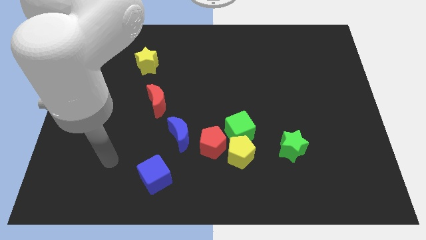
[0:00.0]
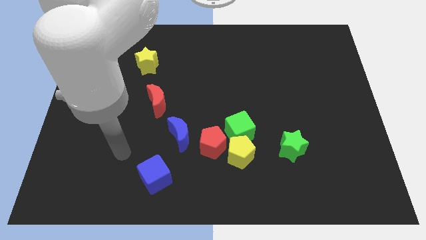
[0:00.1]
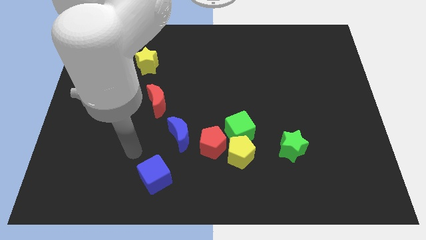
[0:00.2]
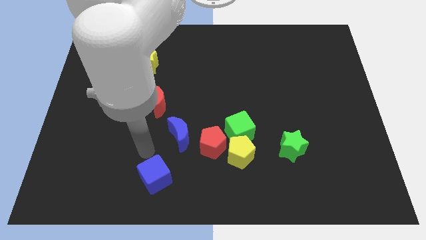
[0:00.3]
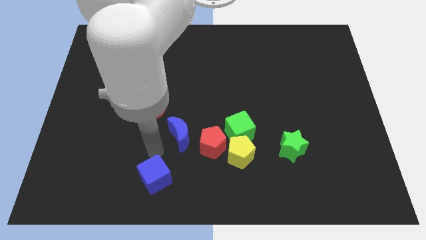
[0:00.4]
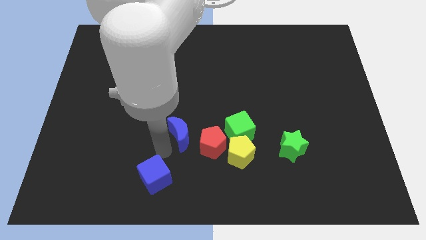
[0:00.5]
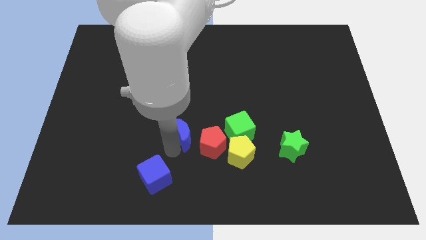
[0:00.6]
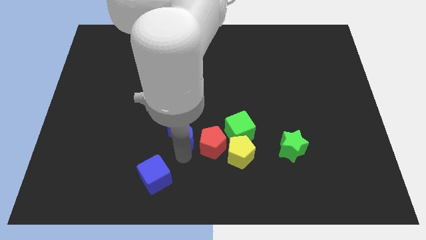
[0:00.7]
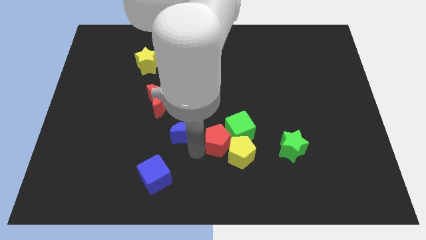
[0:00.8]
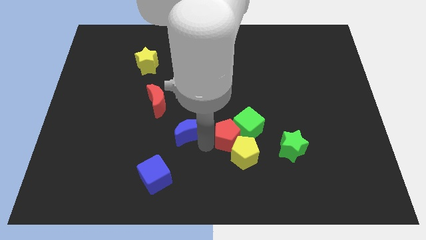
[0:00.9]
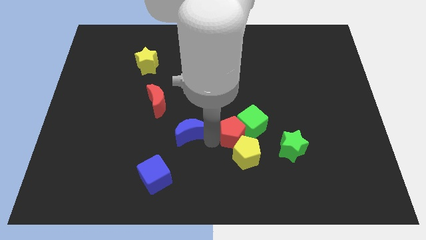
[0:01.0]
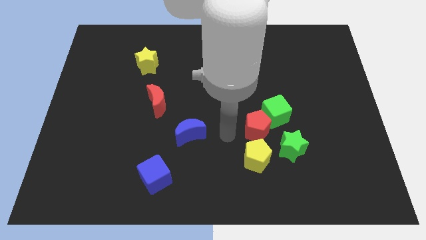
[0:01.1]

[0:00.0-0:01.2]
pull the yellow pentagon apart from the green cube and red pentagon

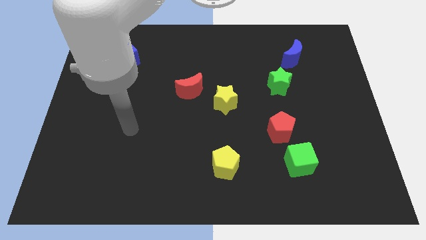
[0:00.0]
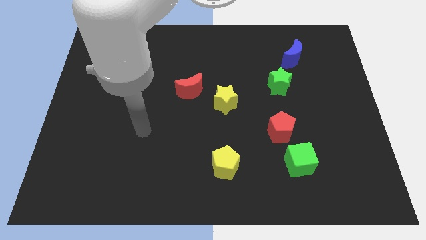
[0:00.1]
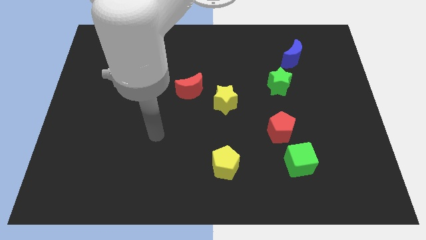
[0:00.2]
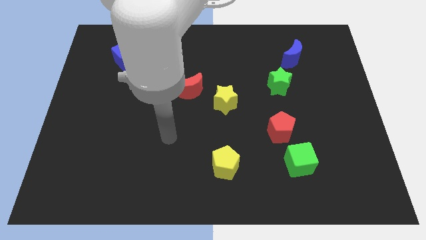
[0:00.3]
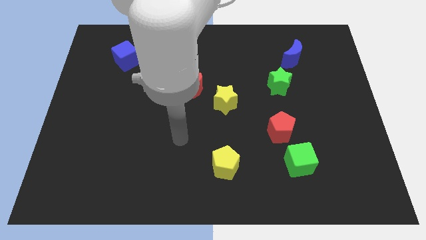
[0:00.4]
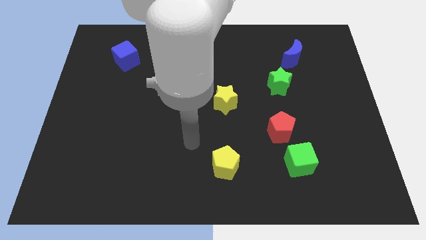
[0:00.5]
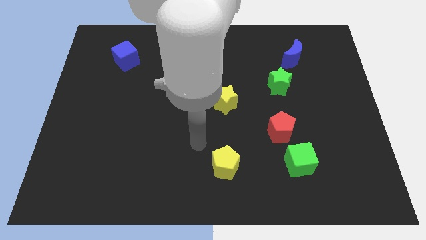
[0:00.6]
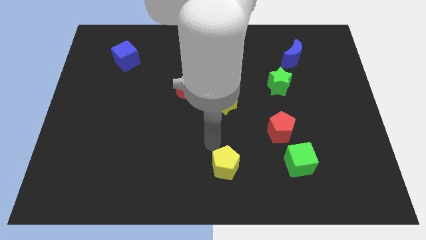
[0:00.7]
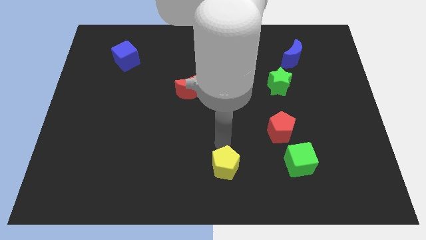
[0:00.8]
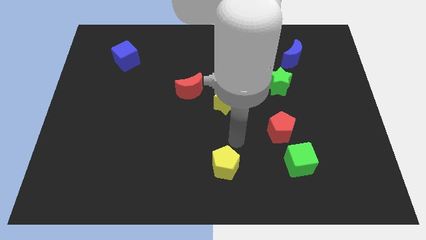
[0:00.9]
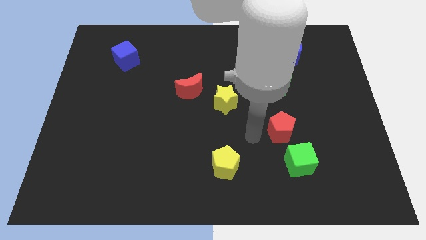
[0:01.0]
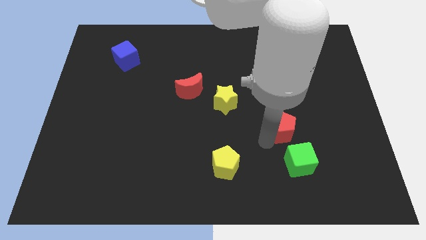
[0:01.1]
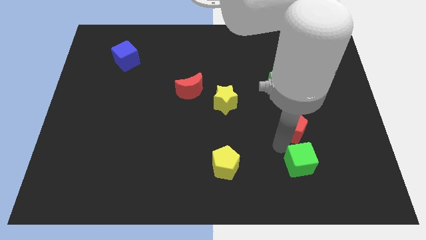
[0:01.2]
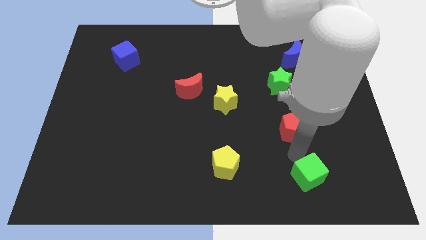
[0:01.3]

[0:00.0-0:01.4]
pull the red pentagon apart from the green cube

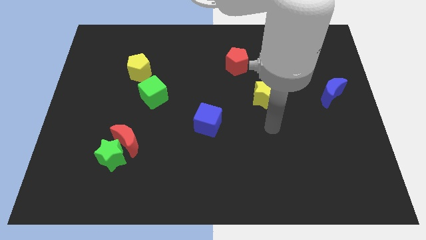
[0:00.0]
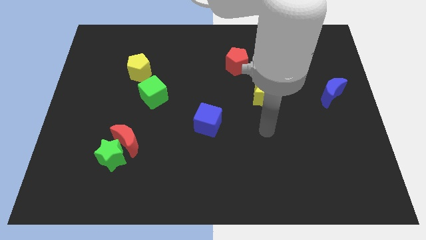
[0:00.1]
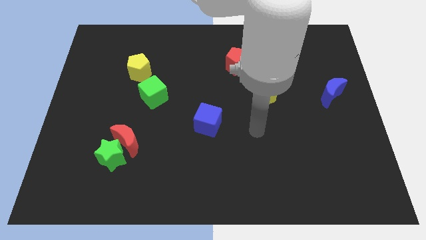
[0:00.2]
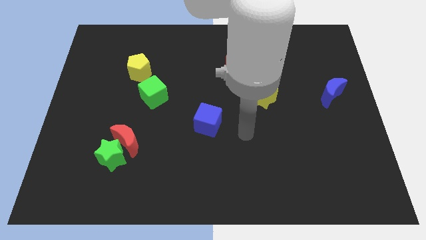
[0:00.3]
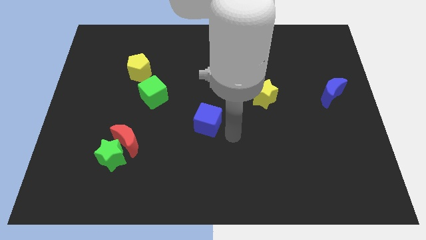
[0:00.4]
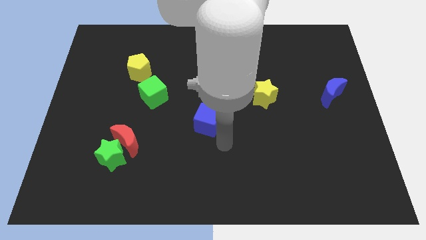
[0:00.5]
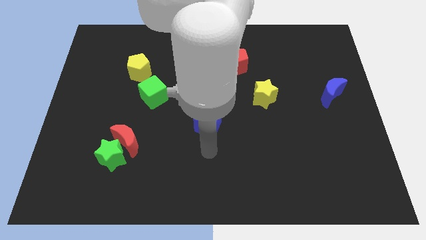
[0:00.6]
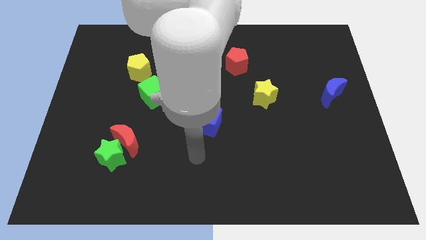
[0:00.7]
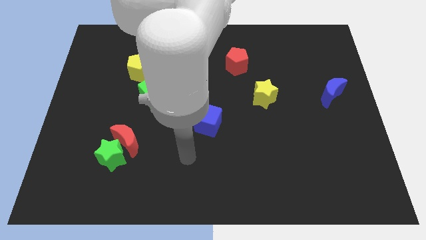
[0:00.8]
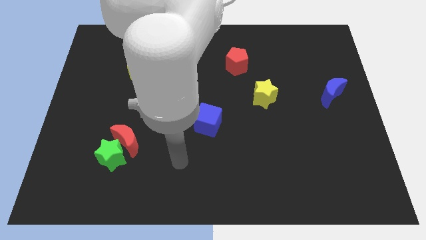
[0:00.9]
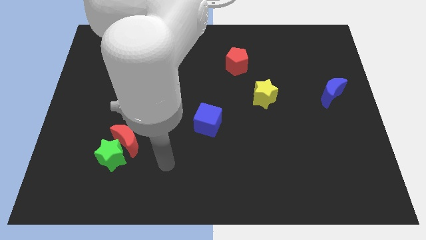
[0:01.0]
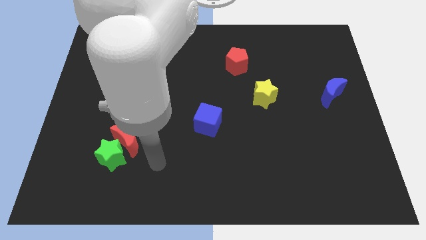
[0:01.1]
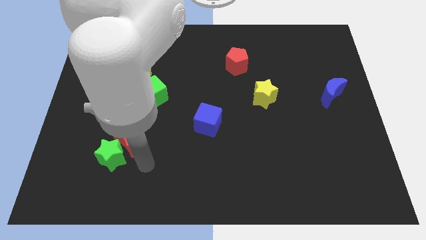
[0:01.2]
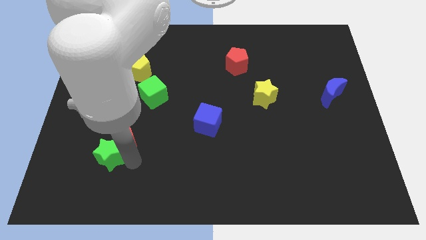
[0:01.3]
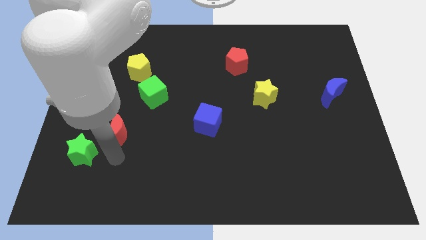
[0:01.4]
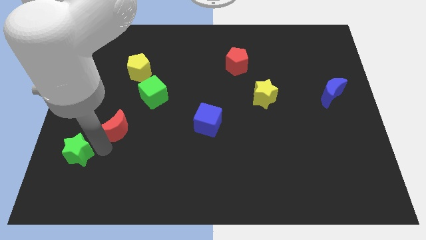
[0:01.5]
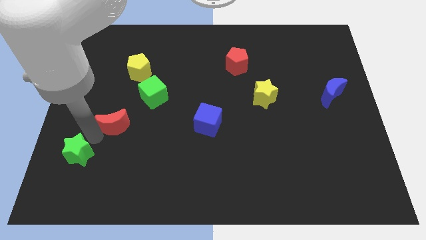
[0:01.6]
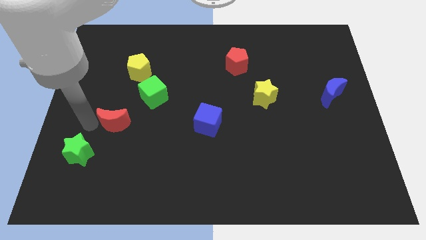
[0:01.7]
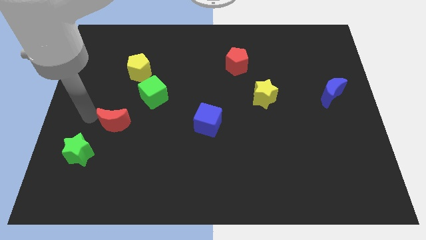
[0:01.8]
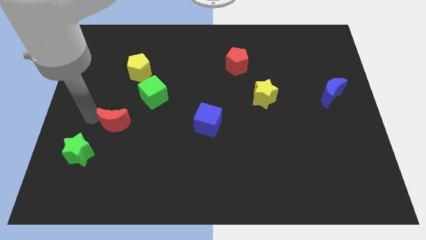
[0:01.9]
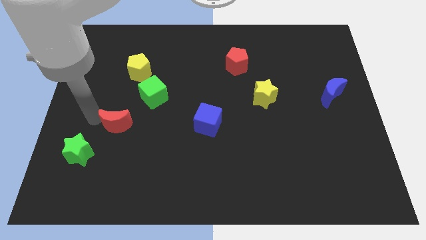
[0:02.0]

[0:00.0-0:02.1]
separate the red moon from the green star

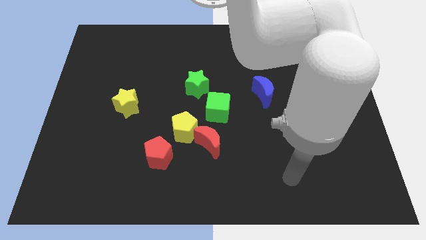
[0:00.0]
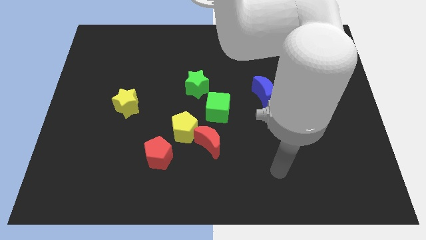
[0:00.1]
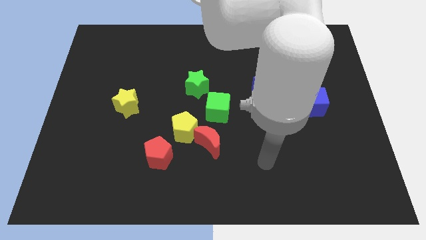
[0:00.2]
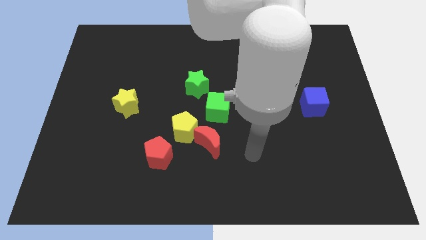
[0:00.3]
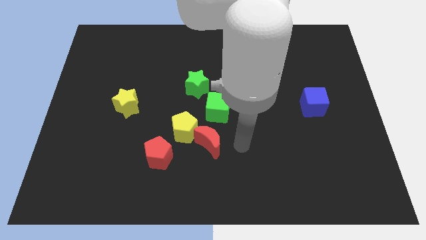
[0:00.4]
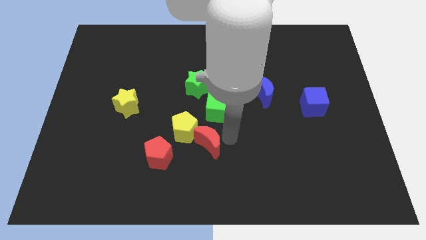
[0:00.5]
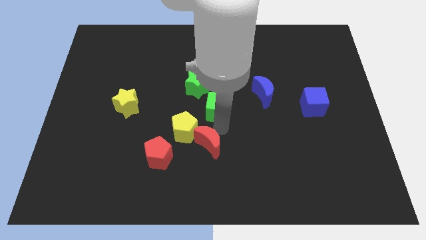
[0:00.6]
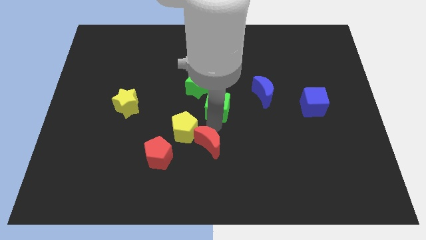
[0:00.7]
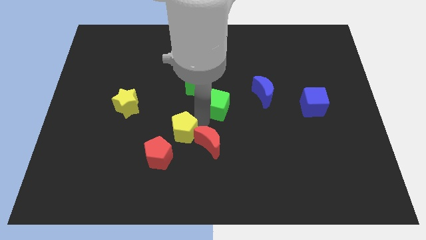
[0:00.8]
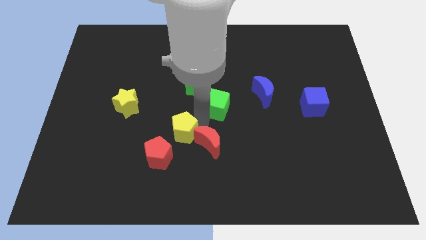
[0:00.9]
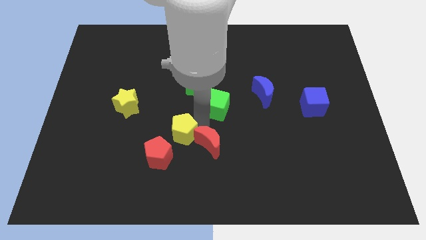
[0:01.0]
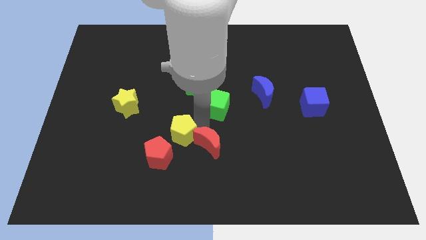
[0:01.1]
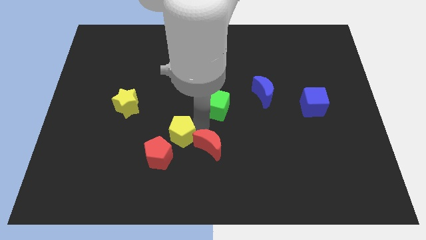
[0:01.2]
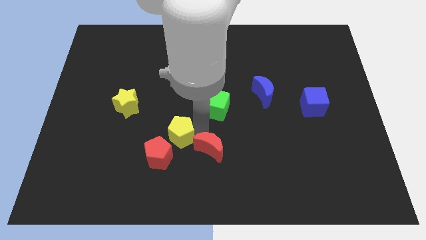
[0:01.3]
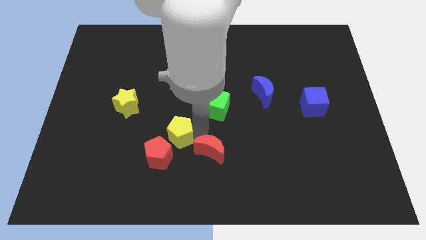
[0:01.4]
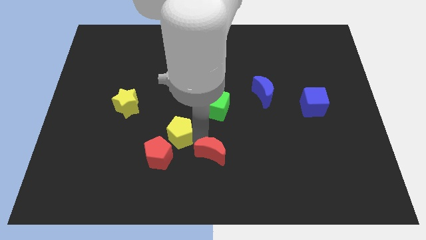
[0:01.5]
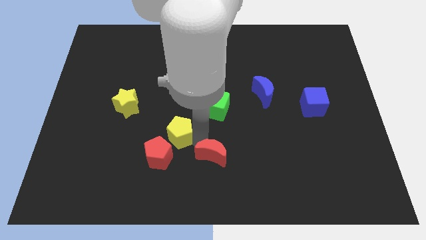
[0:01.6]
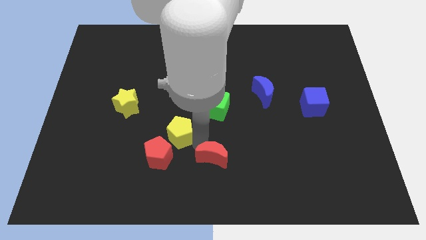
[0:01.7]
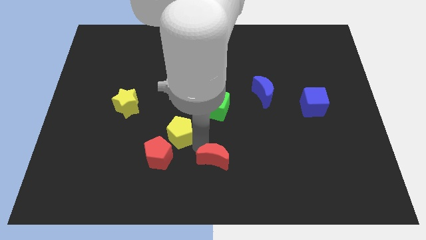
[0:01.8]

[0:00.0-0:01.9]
move the red moon away from the yellow pentagon and green cube

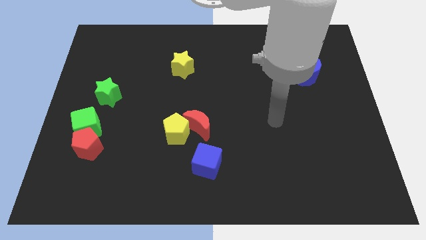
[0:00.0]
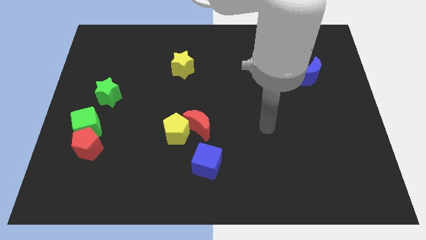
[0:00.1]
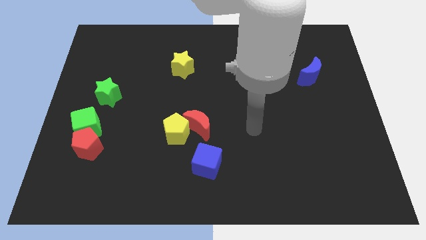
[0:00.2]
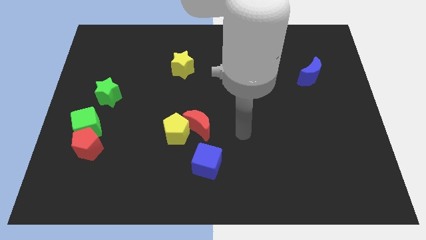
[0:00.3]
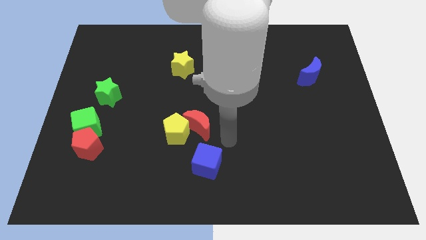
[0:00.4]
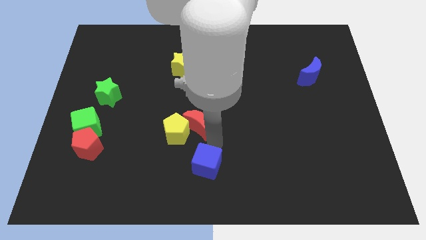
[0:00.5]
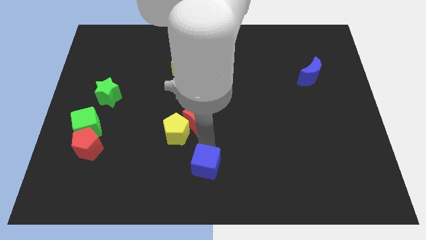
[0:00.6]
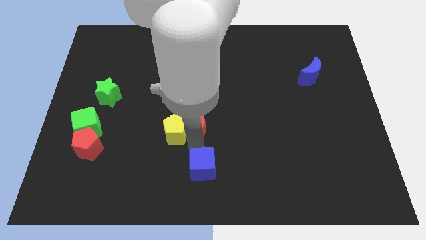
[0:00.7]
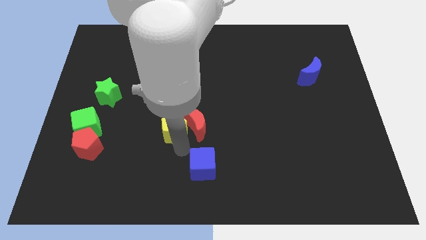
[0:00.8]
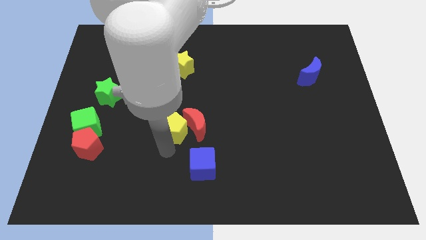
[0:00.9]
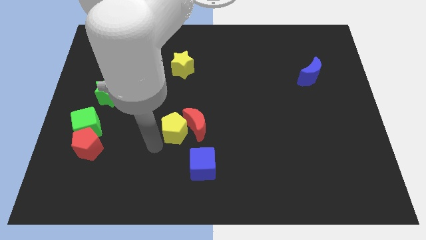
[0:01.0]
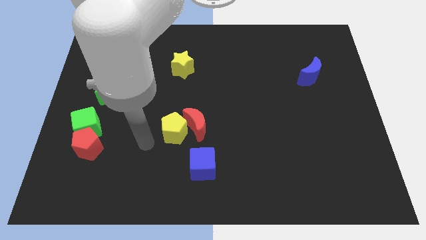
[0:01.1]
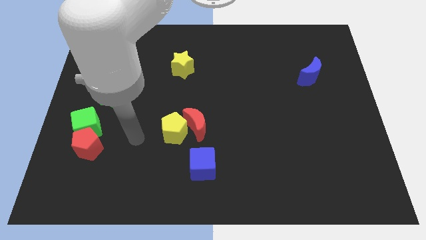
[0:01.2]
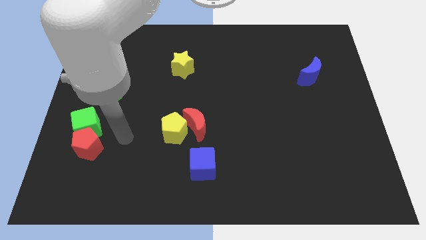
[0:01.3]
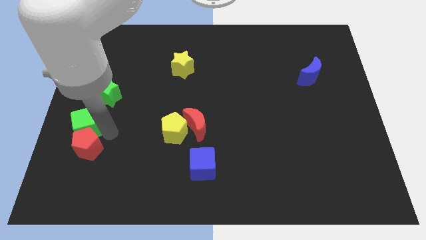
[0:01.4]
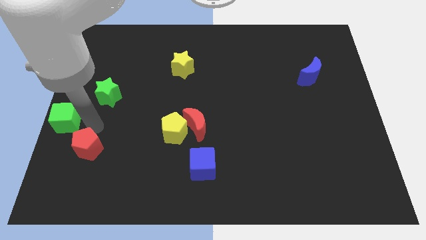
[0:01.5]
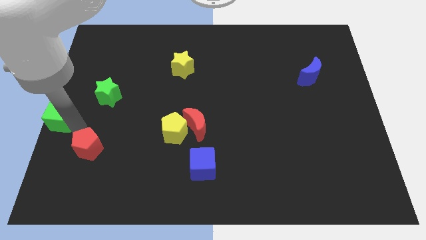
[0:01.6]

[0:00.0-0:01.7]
move the red pentagon away from the green cube

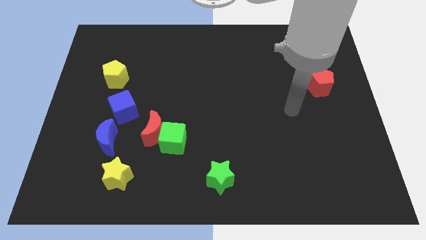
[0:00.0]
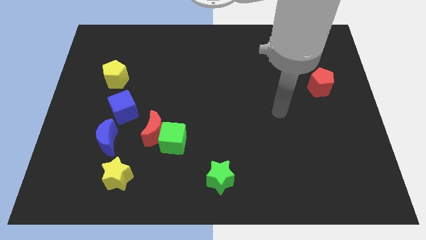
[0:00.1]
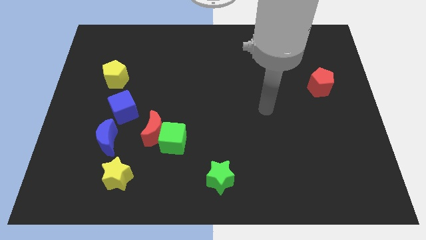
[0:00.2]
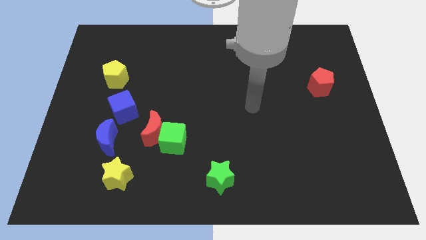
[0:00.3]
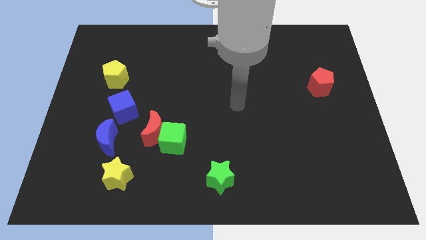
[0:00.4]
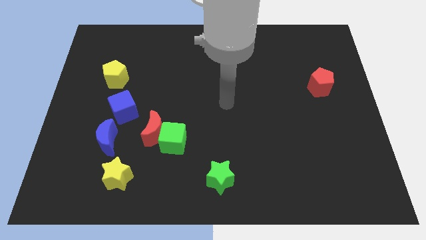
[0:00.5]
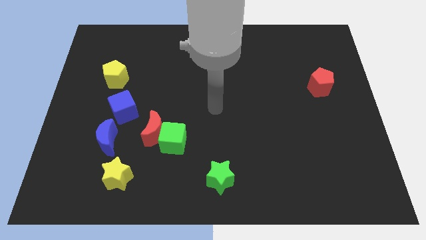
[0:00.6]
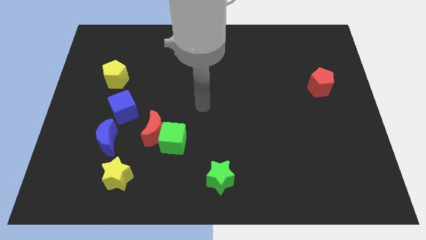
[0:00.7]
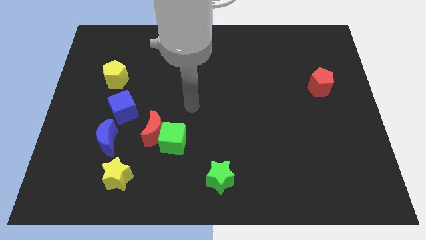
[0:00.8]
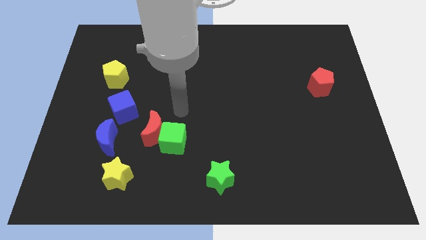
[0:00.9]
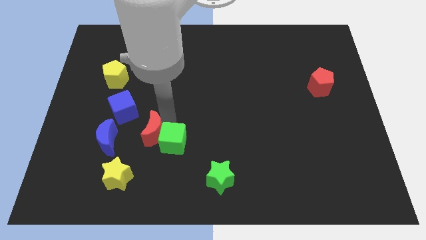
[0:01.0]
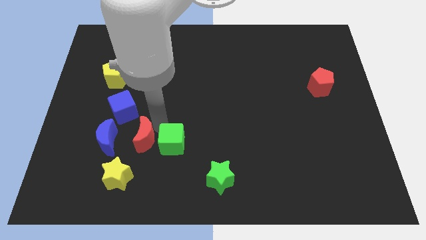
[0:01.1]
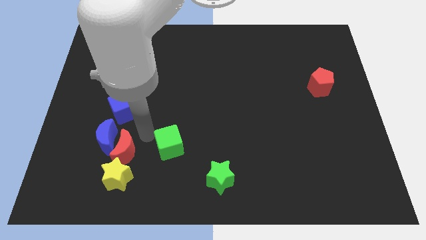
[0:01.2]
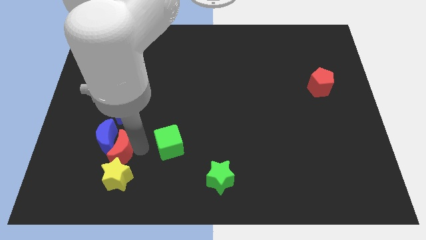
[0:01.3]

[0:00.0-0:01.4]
move the green cube away from the red moon
